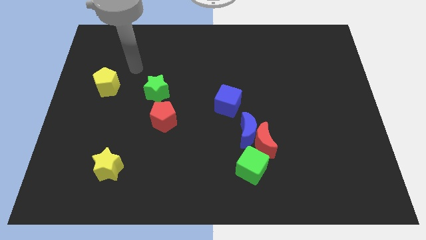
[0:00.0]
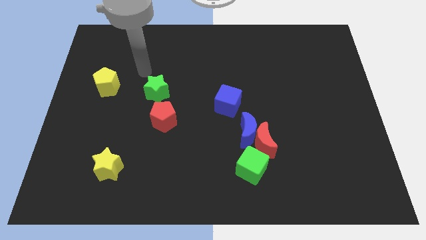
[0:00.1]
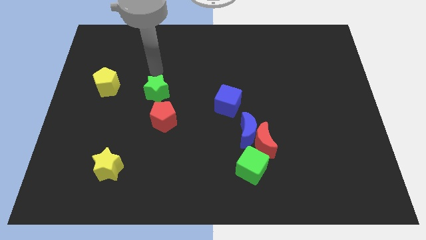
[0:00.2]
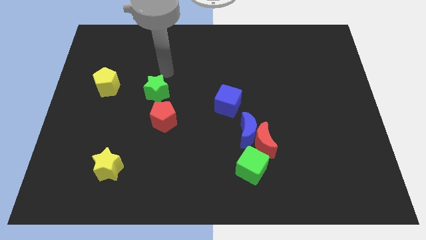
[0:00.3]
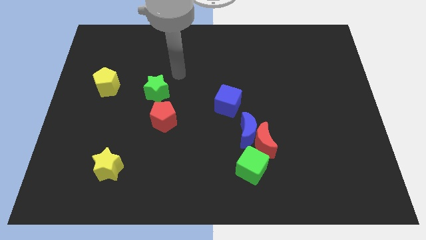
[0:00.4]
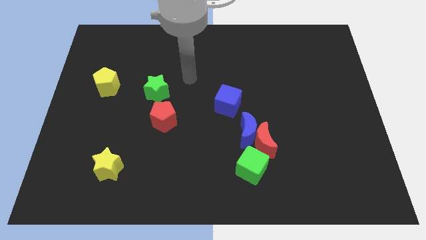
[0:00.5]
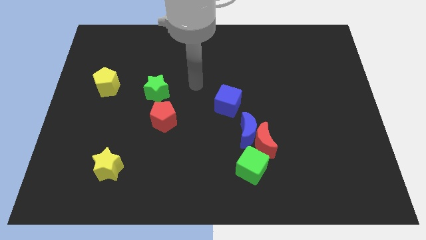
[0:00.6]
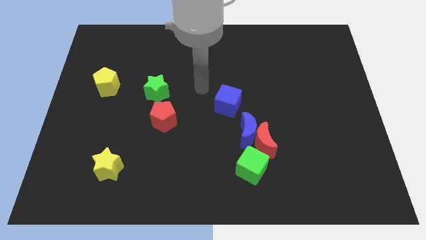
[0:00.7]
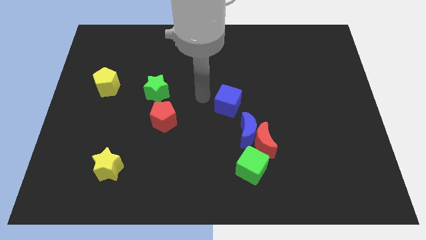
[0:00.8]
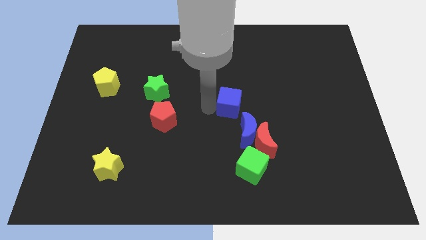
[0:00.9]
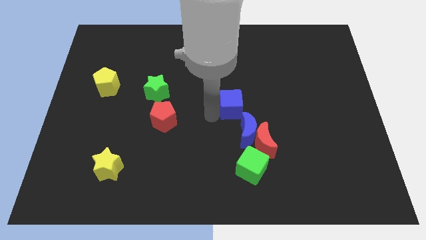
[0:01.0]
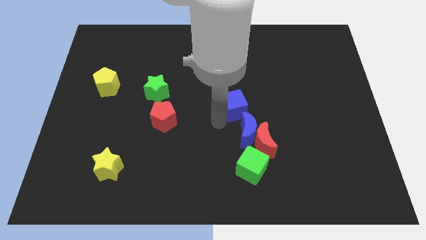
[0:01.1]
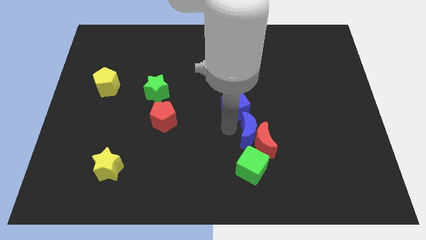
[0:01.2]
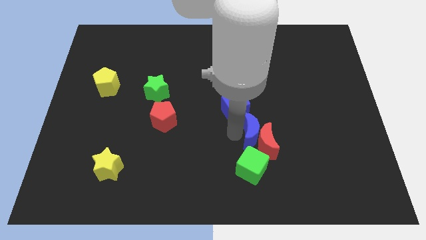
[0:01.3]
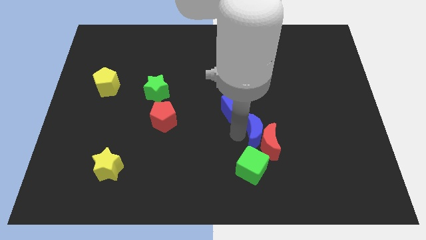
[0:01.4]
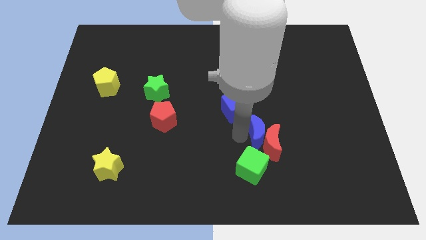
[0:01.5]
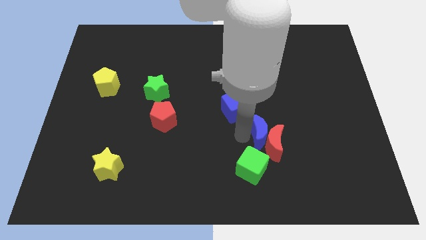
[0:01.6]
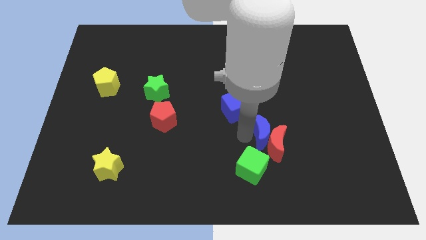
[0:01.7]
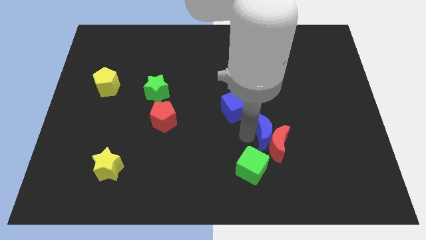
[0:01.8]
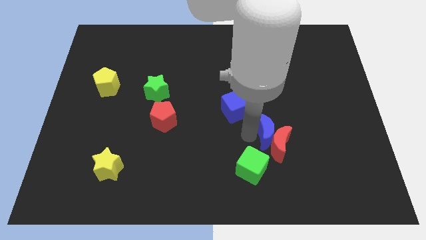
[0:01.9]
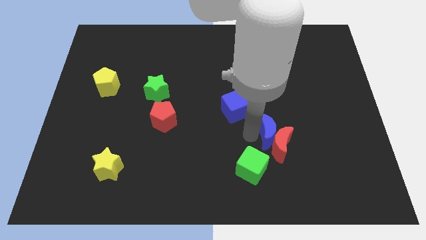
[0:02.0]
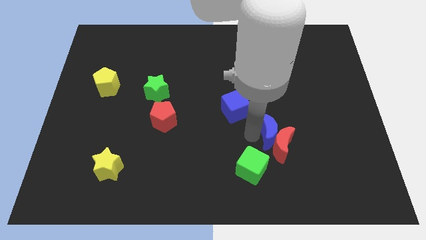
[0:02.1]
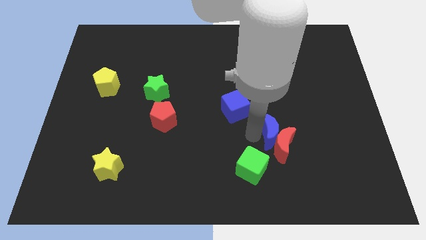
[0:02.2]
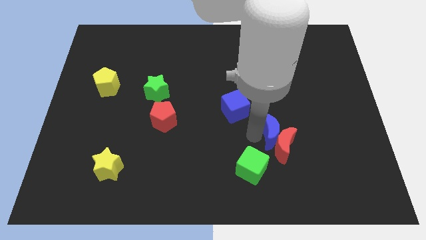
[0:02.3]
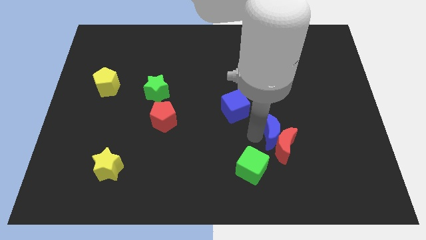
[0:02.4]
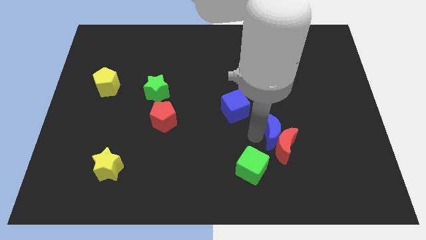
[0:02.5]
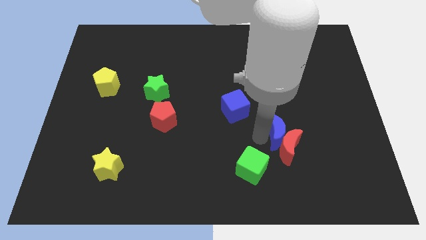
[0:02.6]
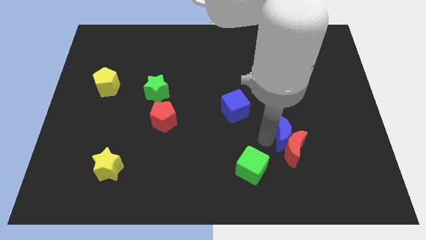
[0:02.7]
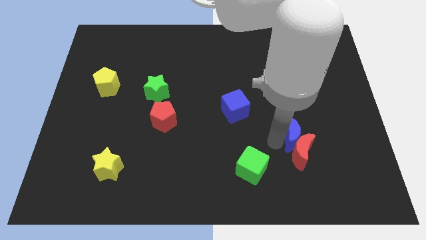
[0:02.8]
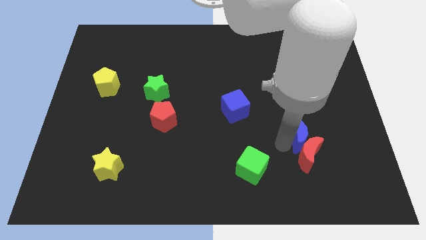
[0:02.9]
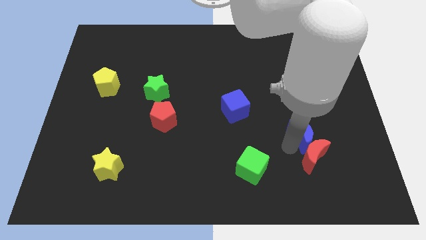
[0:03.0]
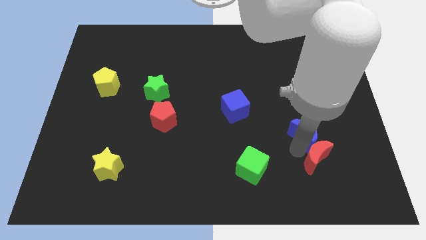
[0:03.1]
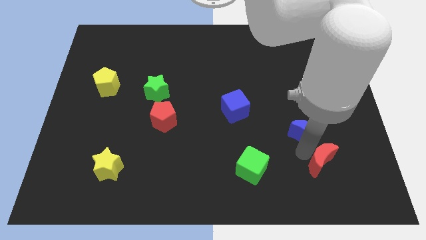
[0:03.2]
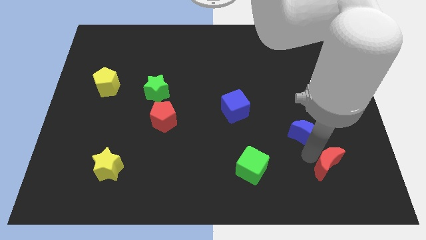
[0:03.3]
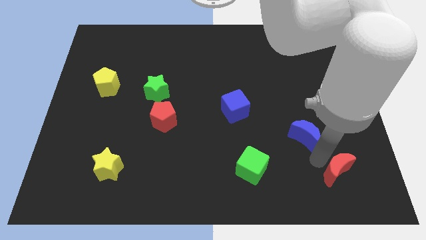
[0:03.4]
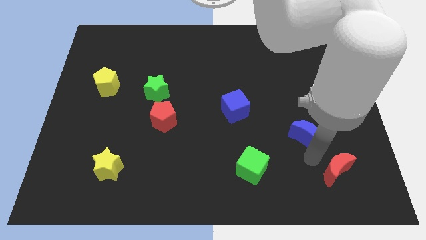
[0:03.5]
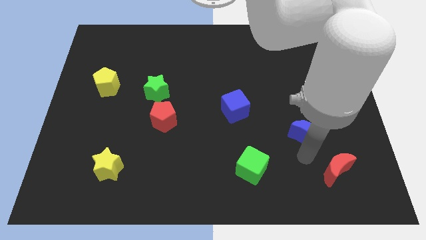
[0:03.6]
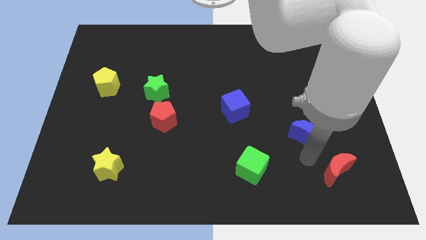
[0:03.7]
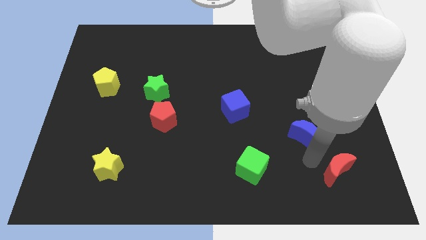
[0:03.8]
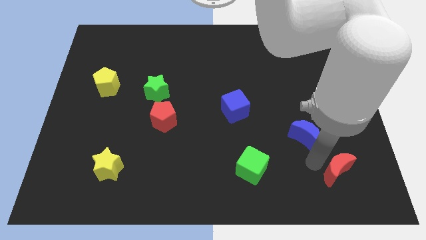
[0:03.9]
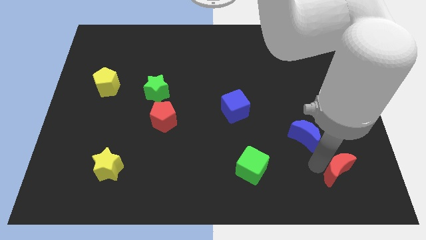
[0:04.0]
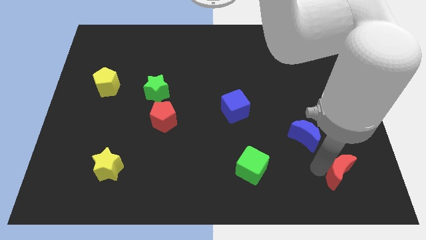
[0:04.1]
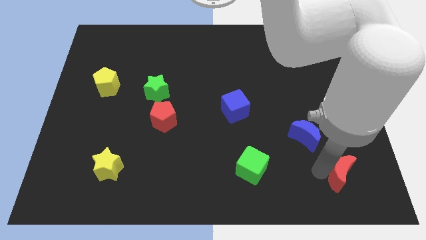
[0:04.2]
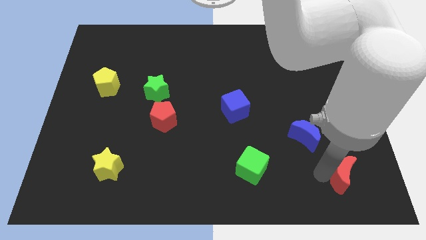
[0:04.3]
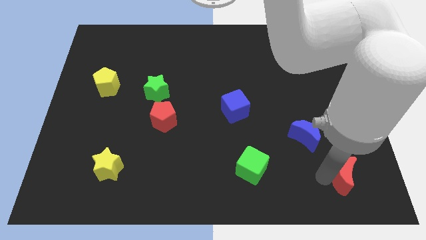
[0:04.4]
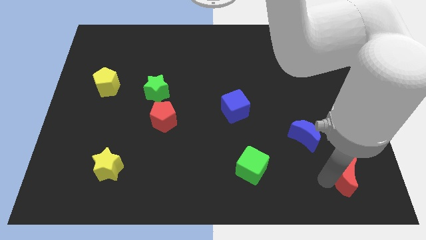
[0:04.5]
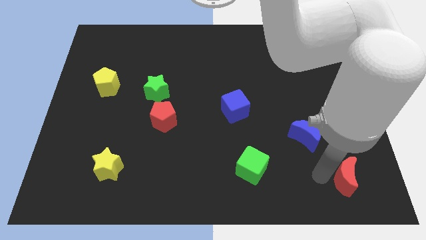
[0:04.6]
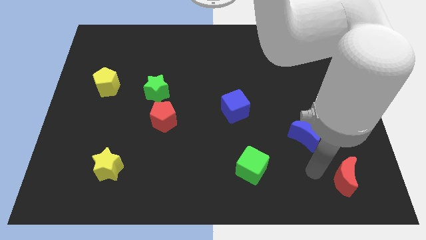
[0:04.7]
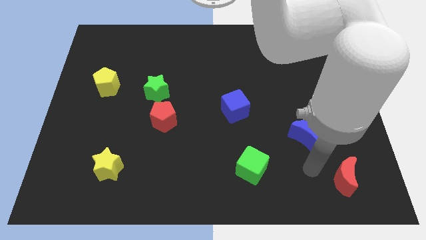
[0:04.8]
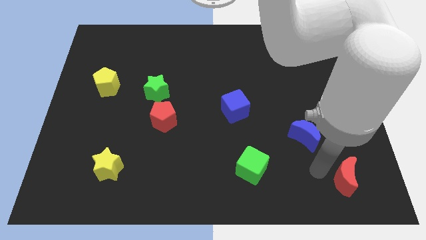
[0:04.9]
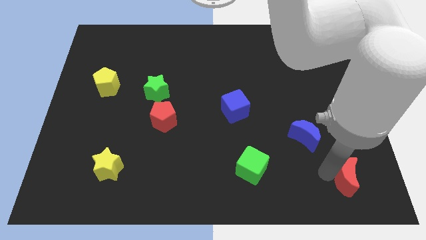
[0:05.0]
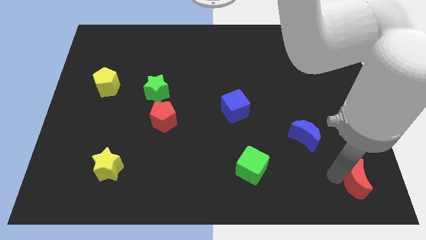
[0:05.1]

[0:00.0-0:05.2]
move the red moon to the lower right corner

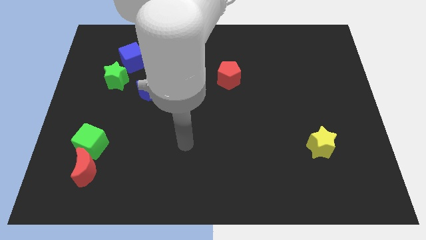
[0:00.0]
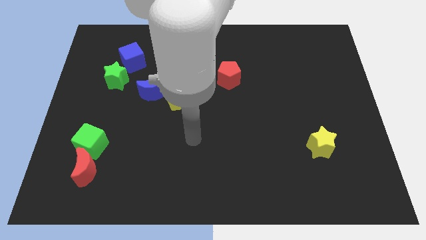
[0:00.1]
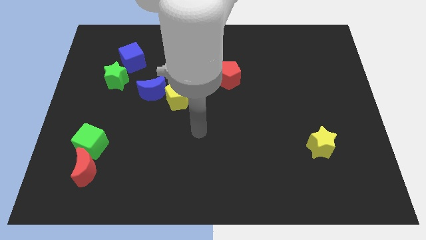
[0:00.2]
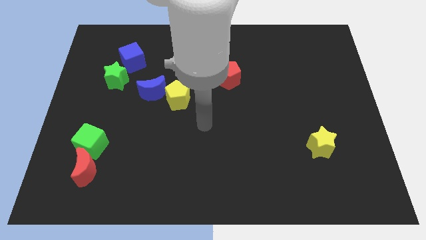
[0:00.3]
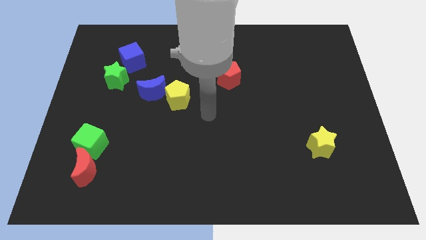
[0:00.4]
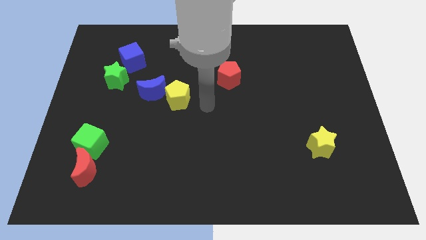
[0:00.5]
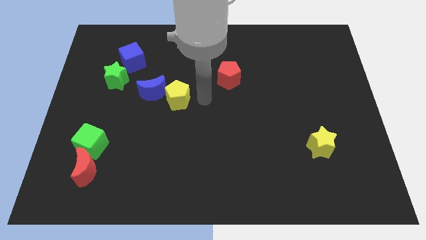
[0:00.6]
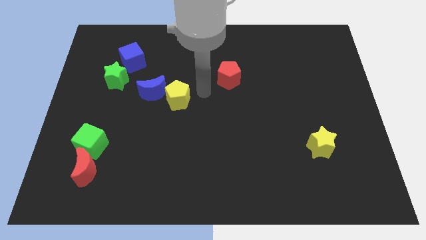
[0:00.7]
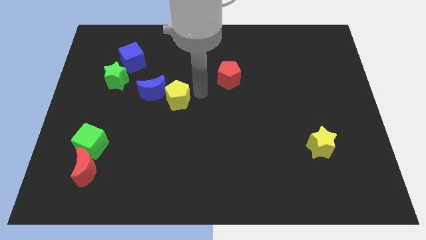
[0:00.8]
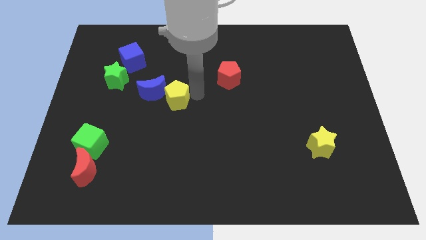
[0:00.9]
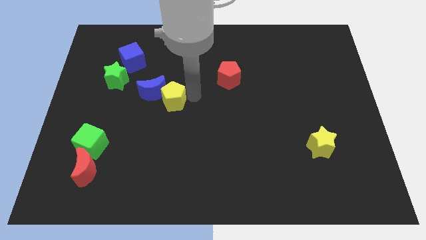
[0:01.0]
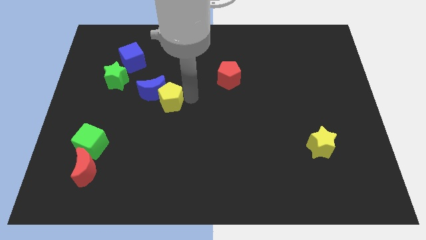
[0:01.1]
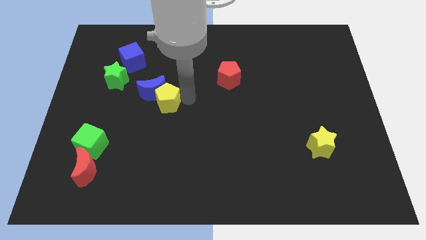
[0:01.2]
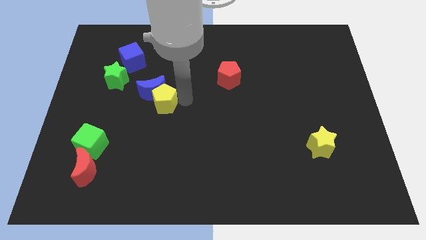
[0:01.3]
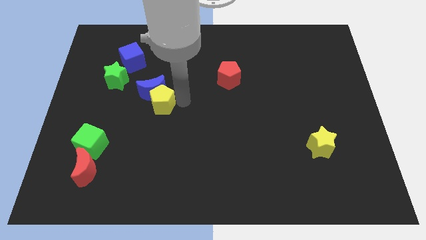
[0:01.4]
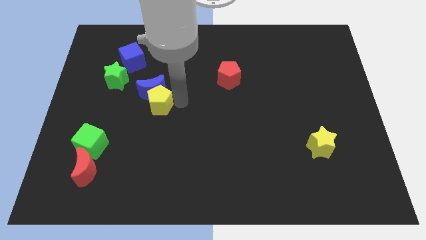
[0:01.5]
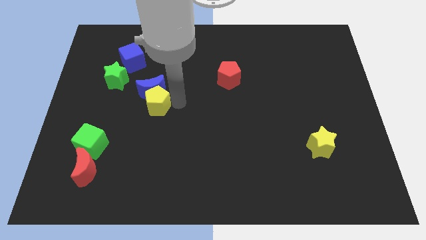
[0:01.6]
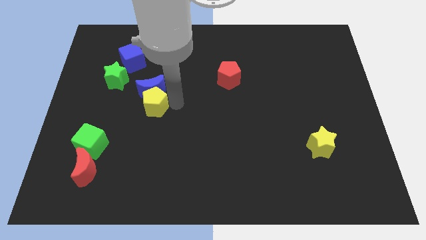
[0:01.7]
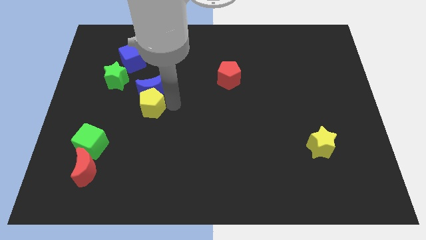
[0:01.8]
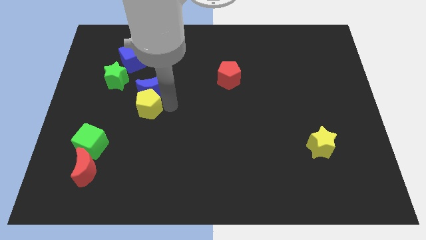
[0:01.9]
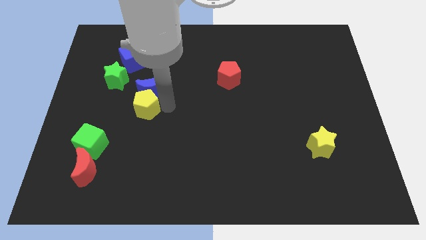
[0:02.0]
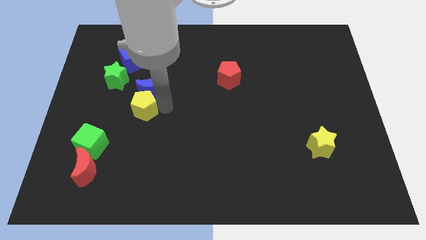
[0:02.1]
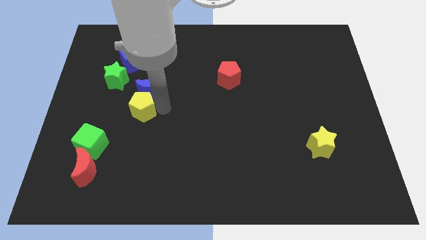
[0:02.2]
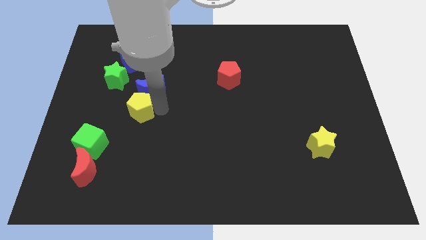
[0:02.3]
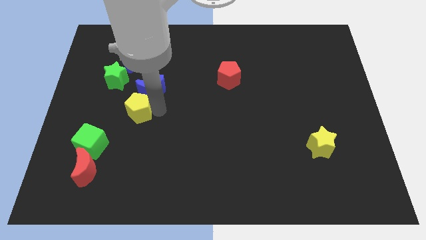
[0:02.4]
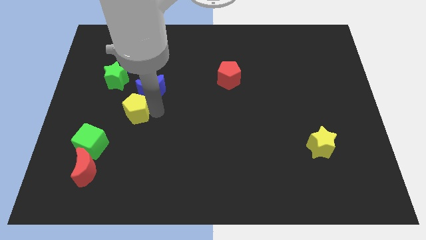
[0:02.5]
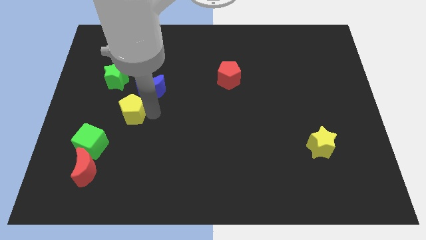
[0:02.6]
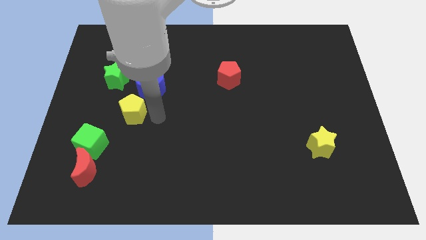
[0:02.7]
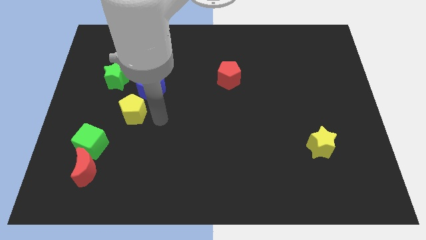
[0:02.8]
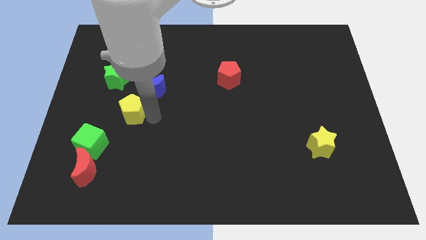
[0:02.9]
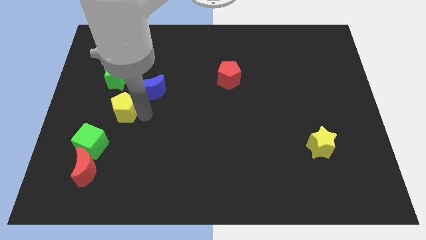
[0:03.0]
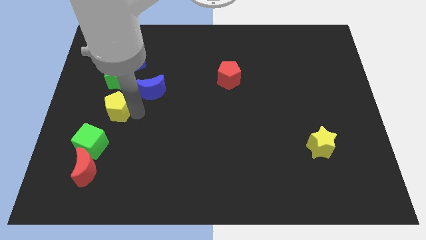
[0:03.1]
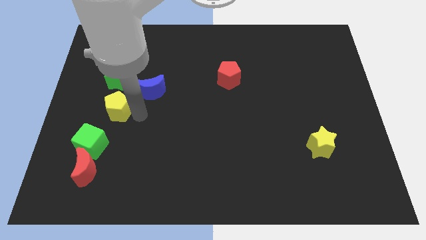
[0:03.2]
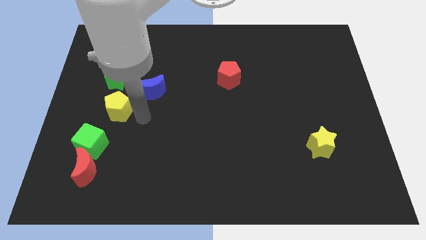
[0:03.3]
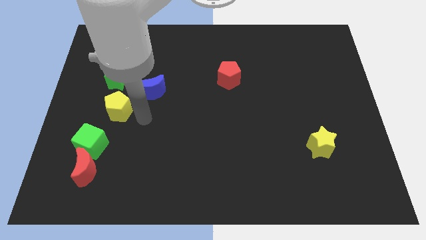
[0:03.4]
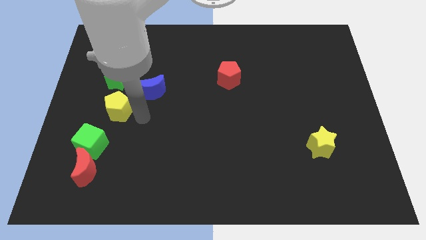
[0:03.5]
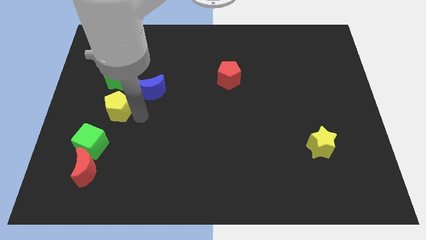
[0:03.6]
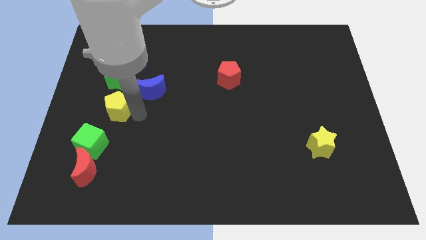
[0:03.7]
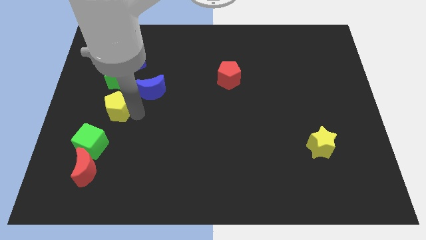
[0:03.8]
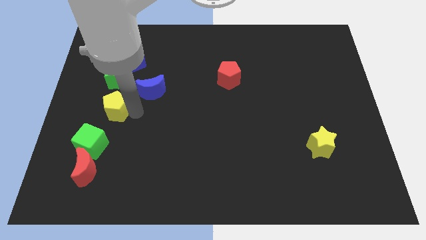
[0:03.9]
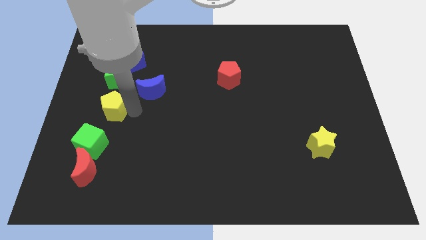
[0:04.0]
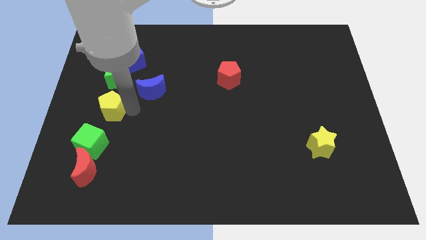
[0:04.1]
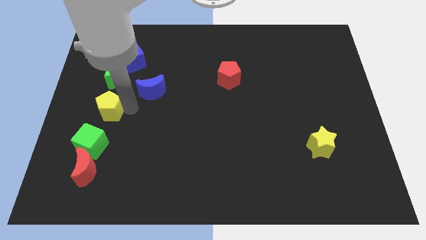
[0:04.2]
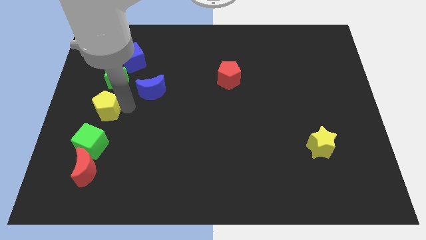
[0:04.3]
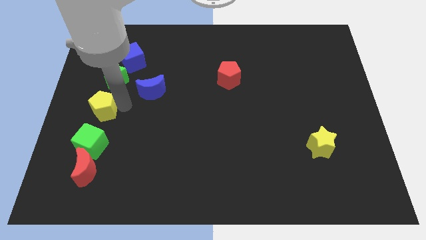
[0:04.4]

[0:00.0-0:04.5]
push the yellow pentagon to the left side of the board
